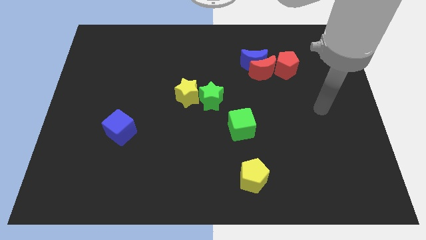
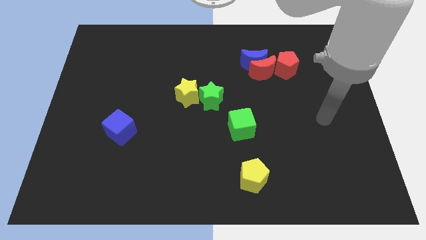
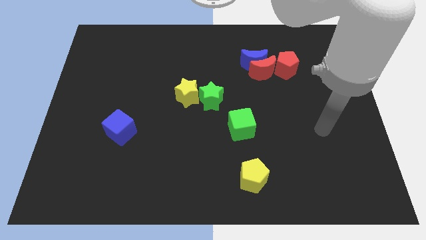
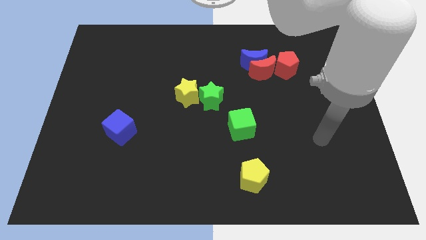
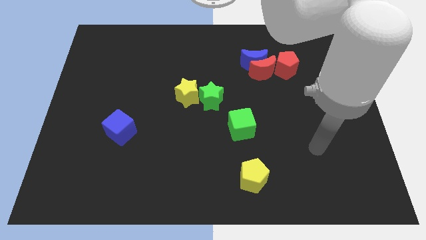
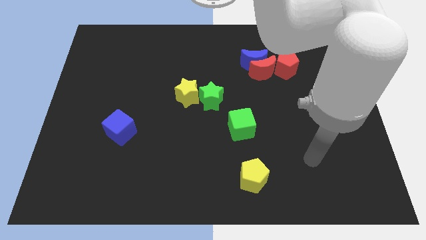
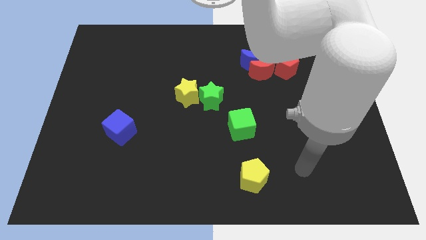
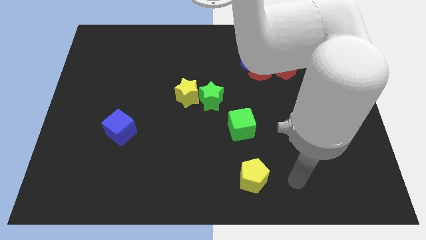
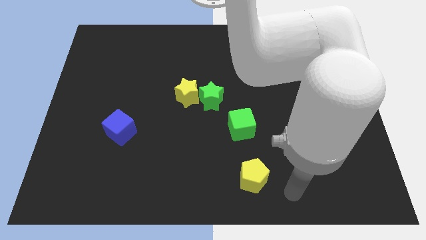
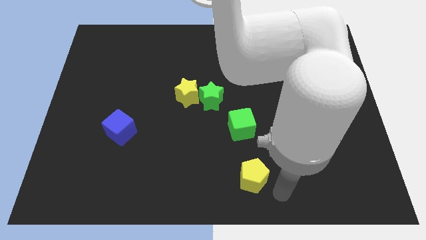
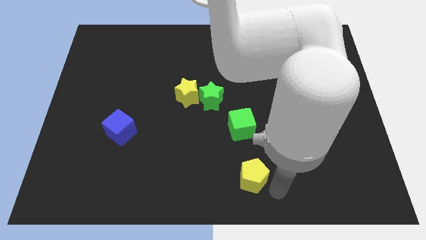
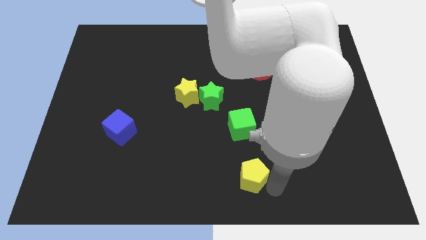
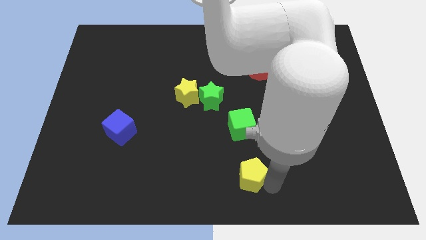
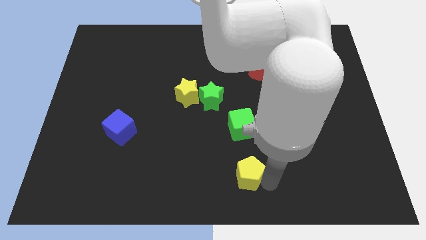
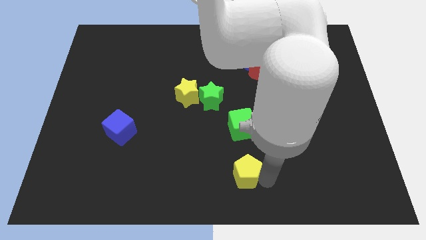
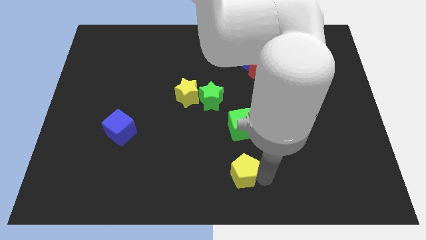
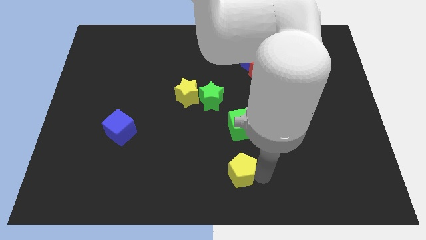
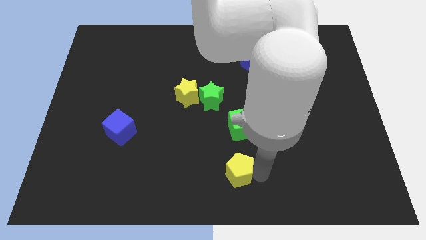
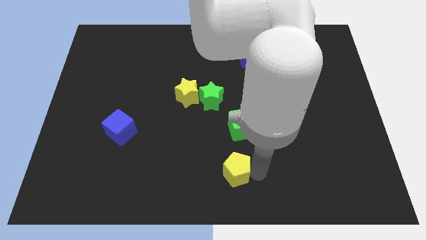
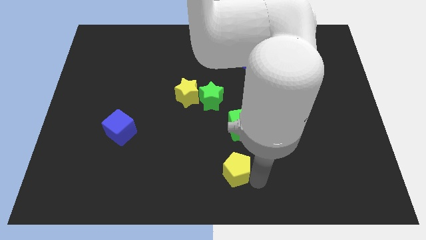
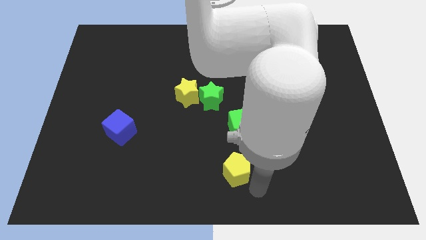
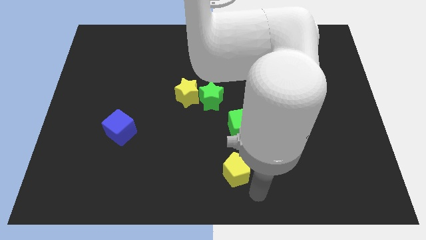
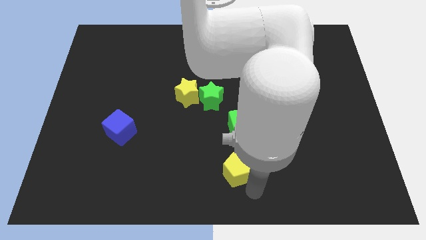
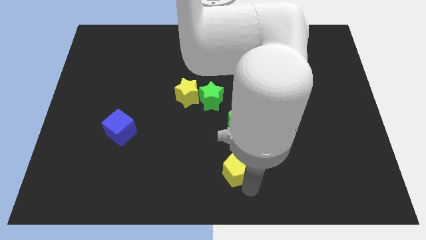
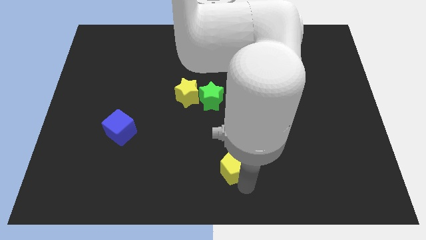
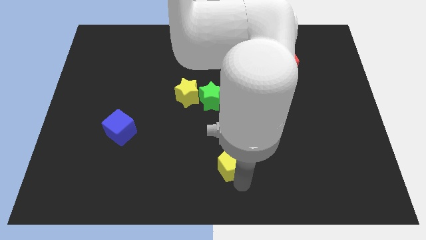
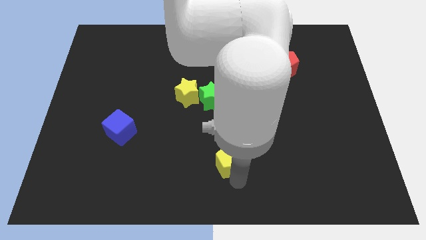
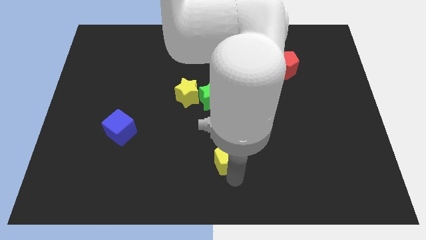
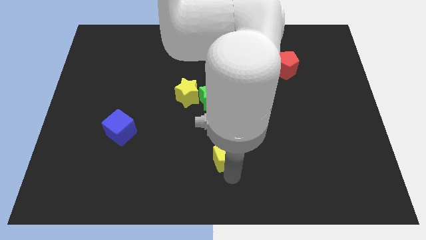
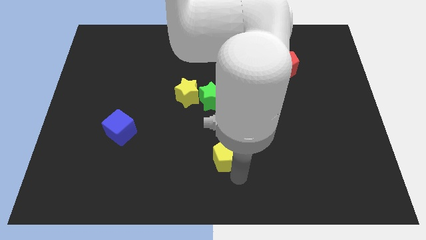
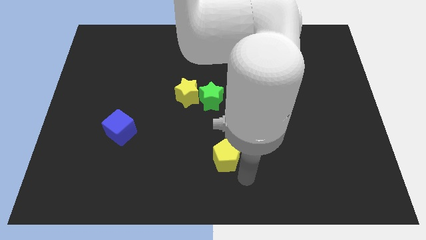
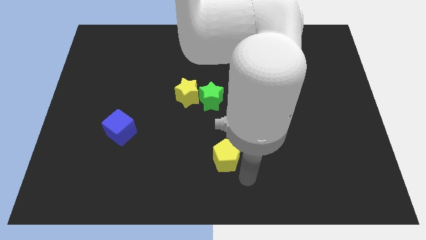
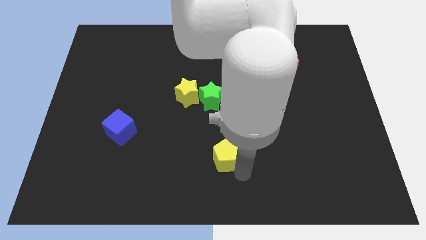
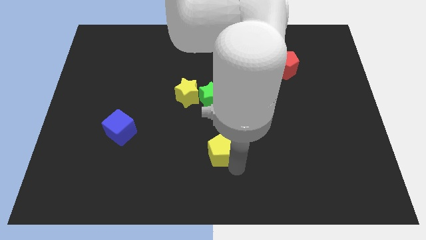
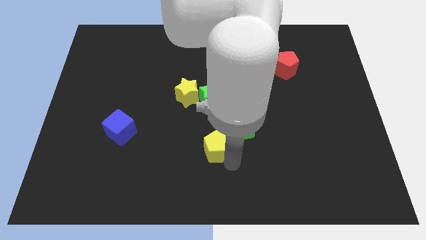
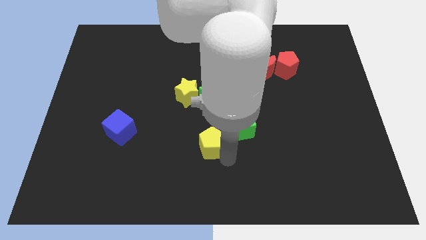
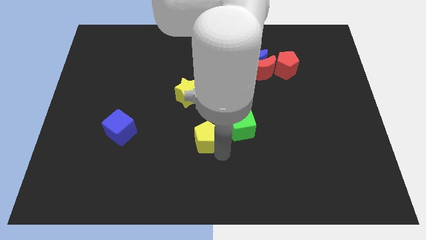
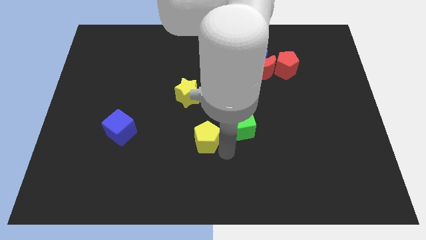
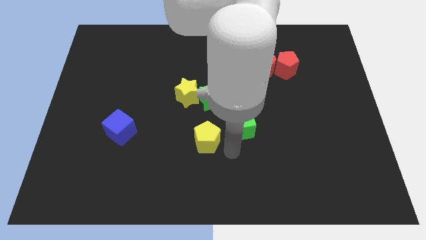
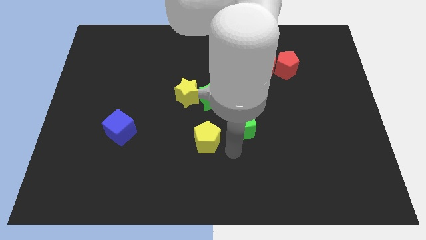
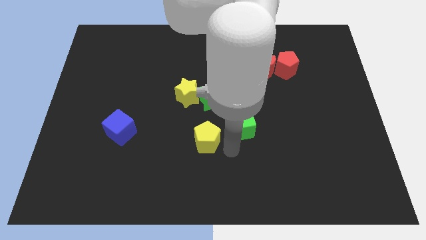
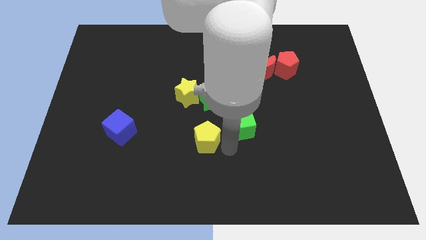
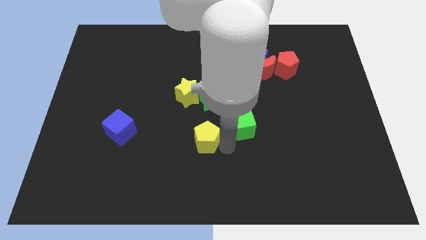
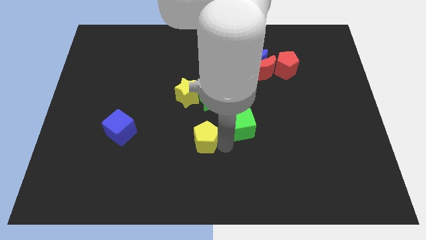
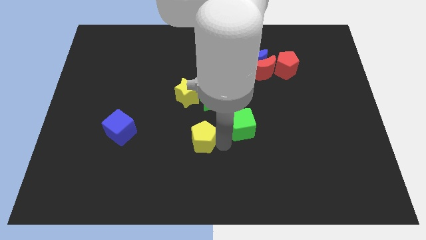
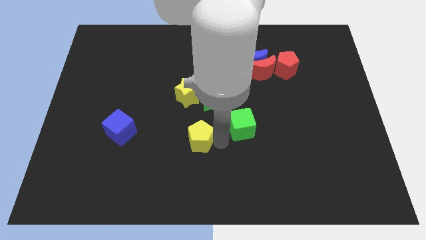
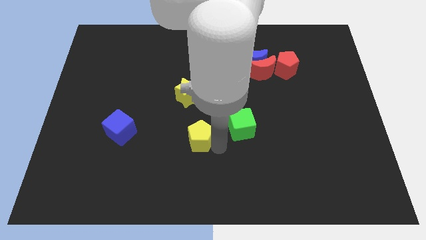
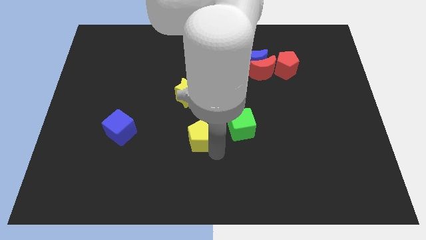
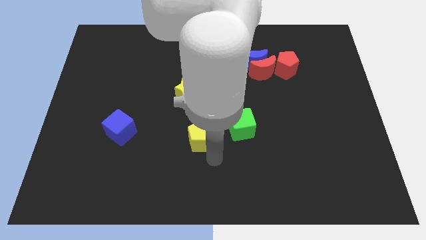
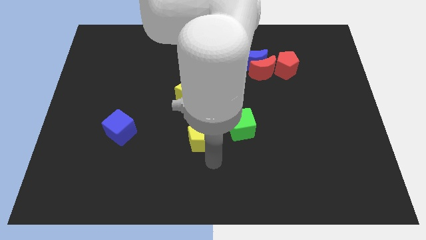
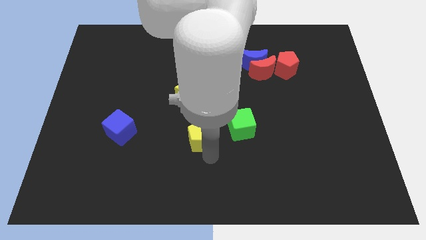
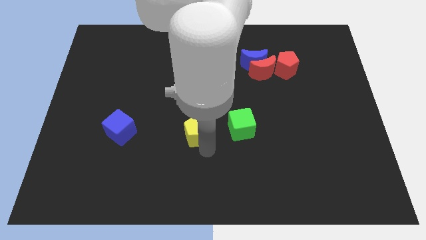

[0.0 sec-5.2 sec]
put the yellow pentagon to the bottom left side of the green star

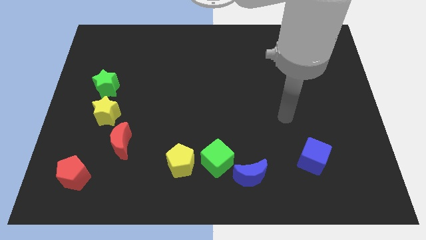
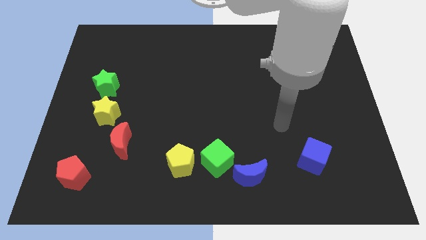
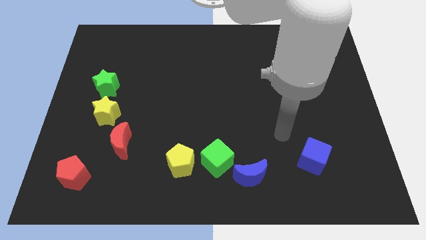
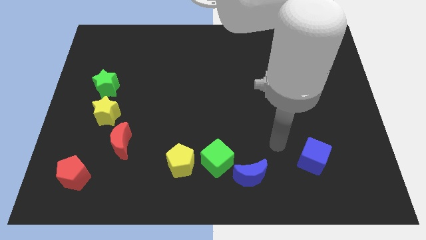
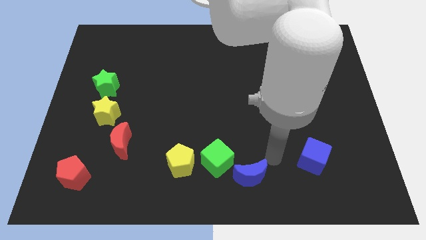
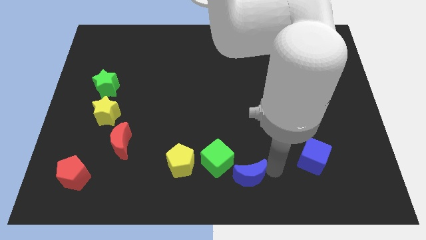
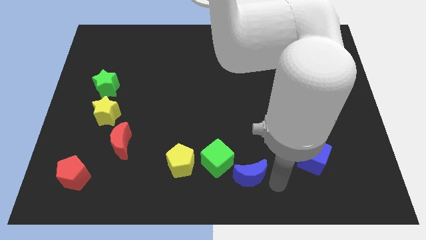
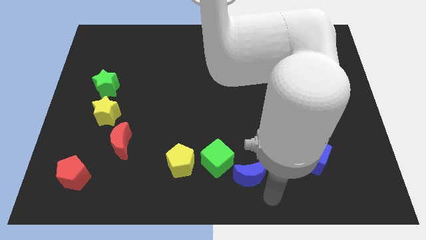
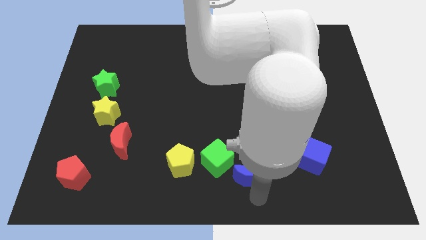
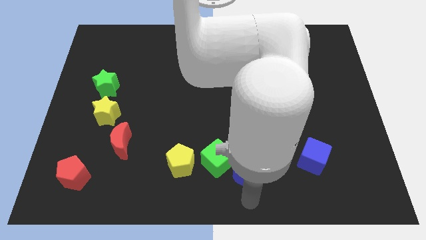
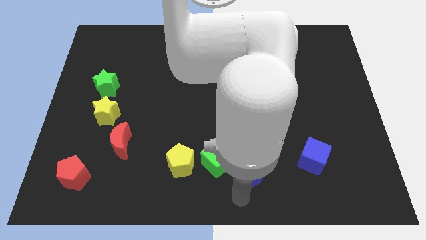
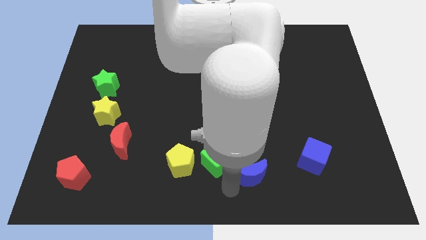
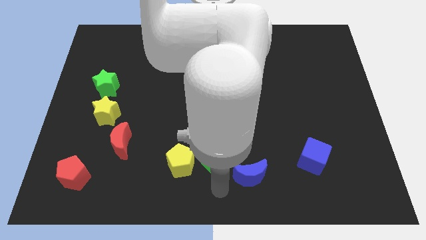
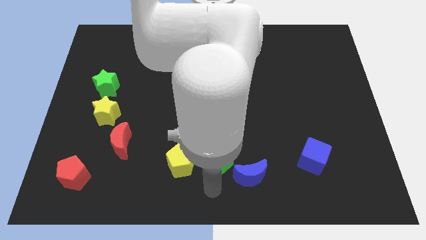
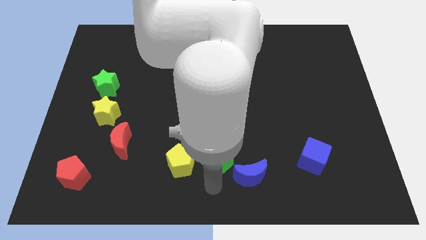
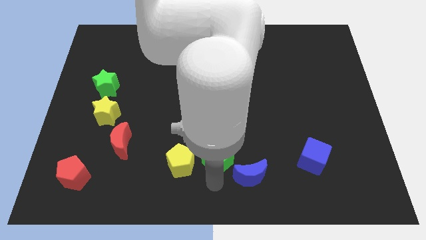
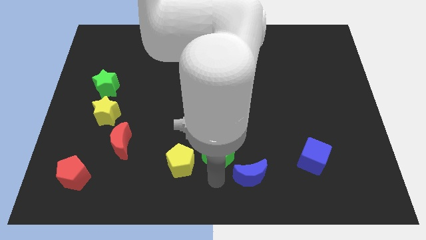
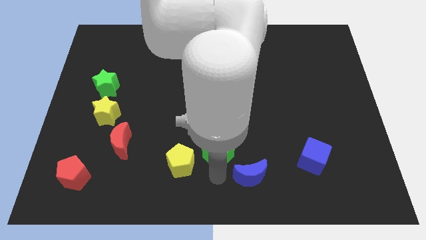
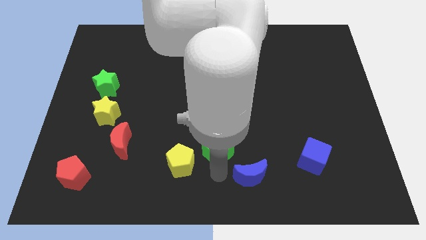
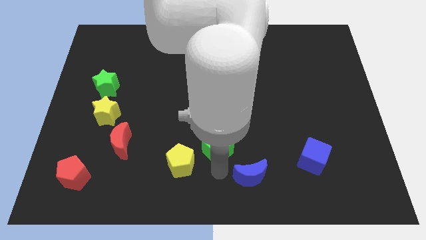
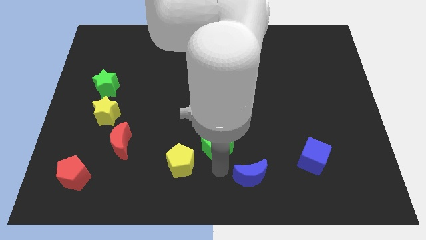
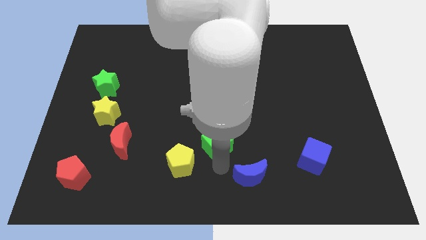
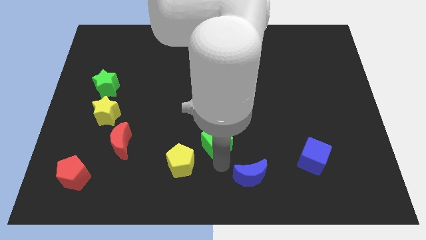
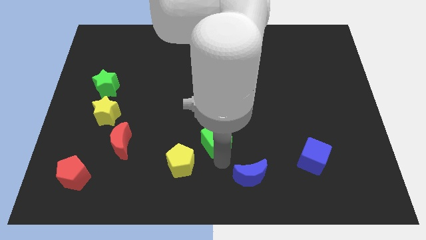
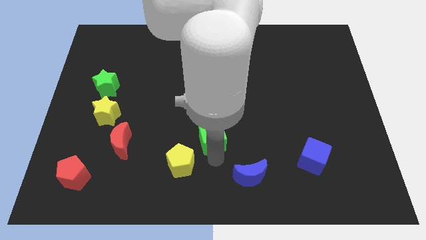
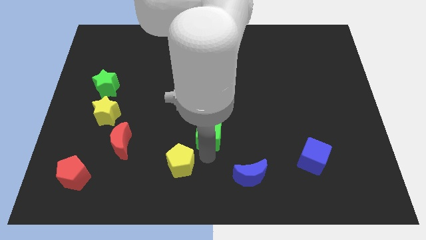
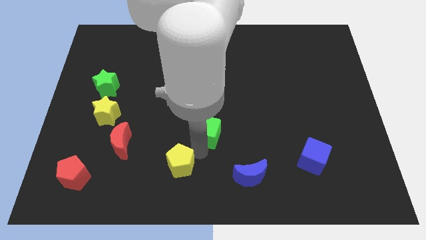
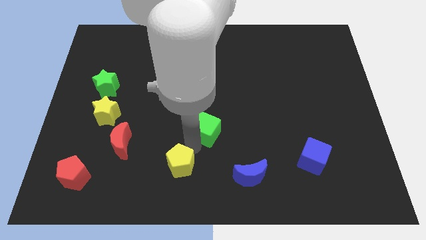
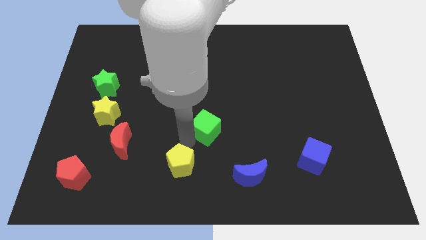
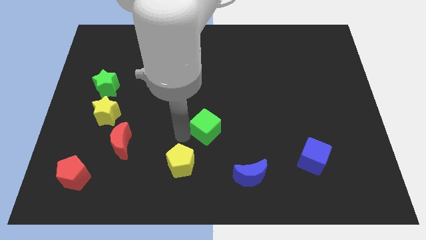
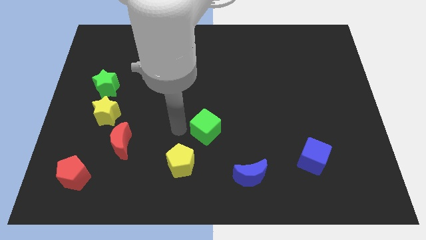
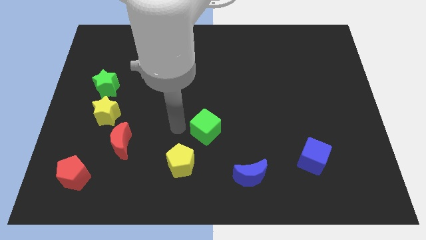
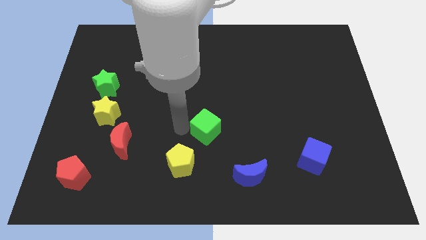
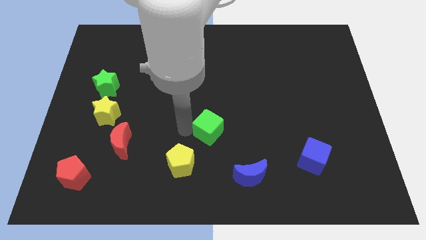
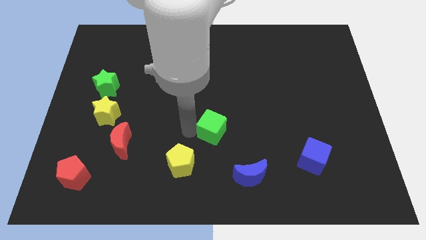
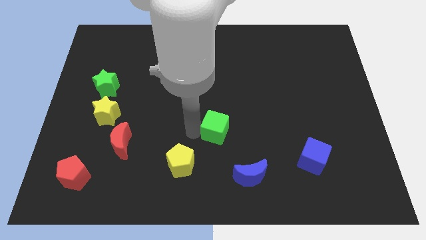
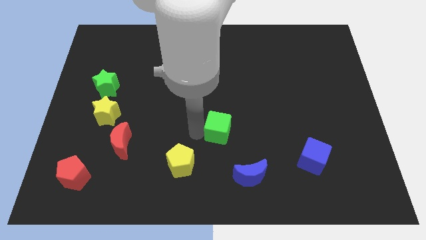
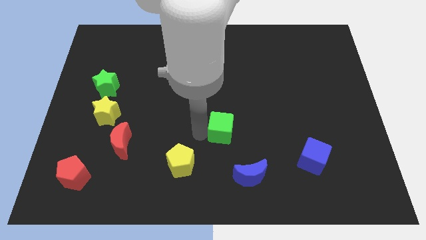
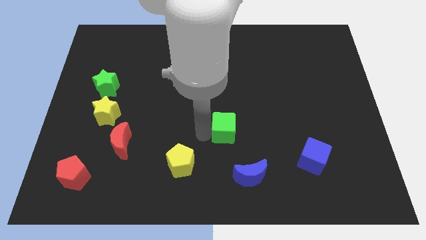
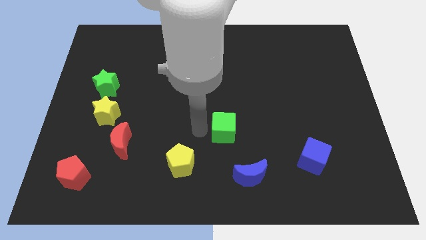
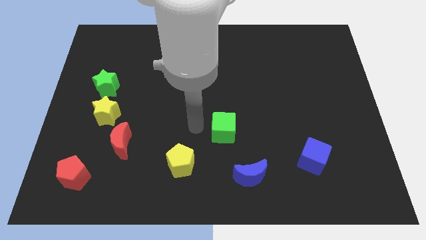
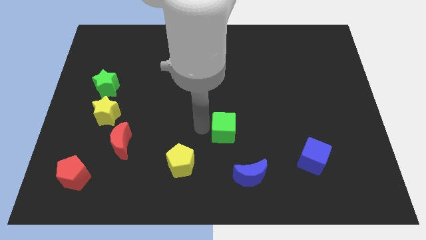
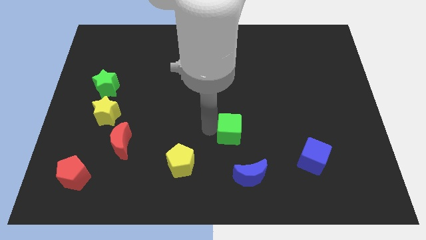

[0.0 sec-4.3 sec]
slide the green cube to the top of the blue moon
